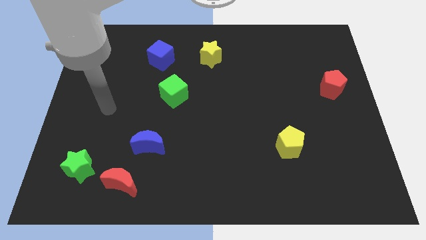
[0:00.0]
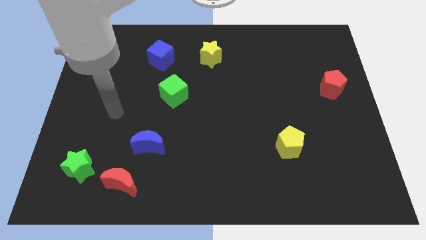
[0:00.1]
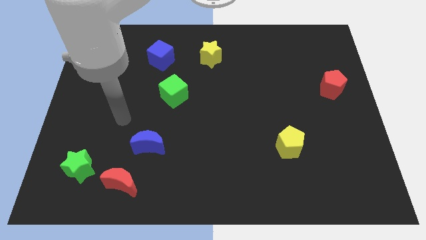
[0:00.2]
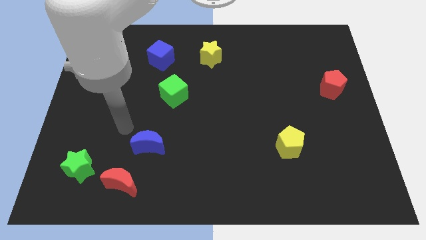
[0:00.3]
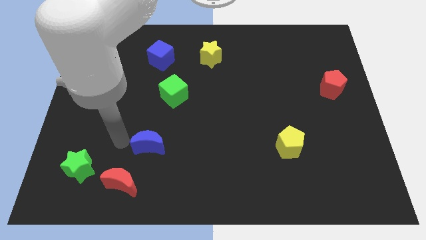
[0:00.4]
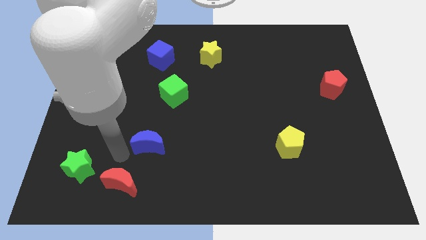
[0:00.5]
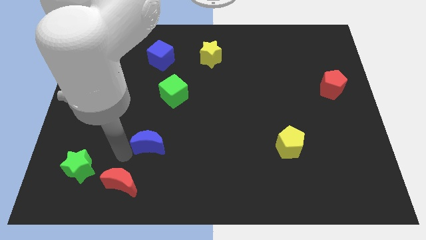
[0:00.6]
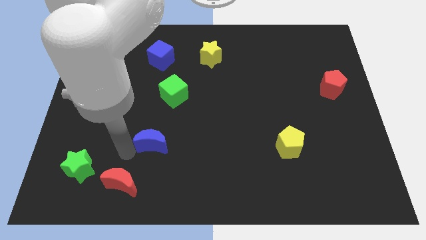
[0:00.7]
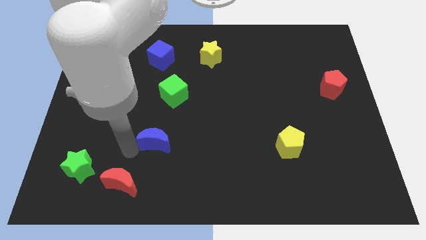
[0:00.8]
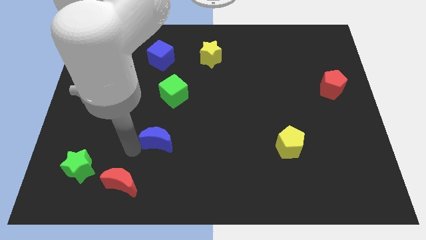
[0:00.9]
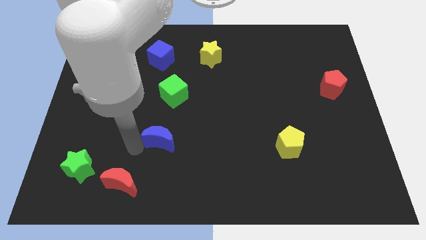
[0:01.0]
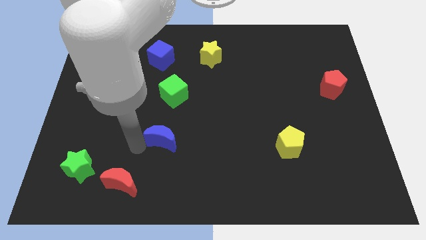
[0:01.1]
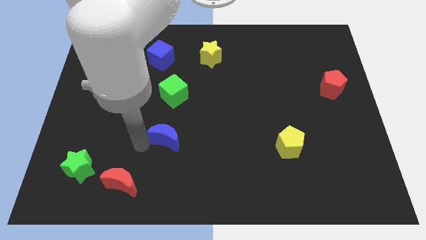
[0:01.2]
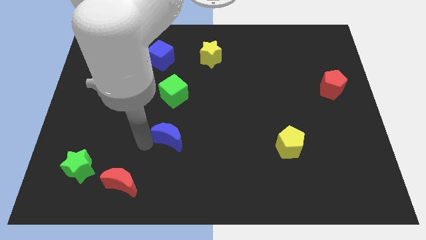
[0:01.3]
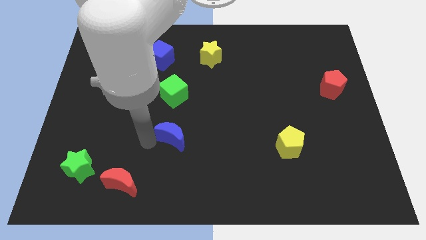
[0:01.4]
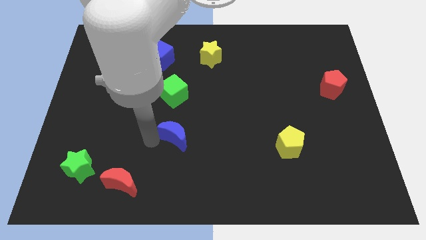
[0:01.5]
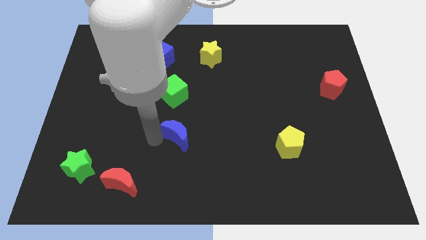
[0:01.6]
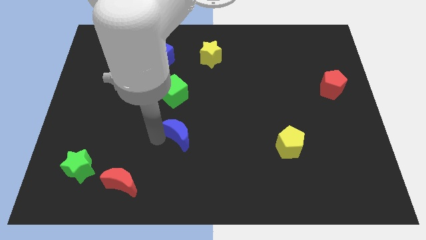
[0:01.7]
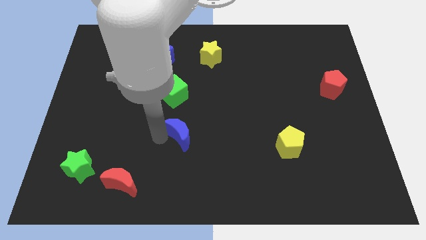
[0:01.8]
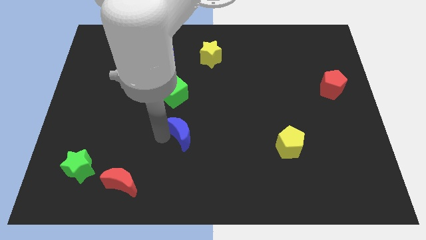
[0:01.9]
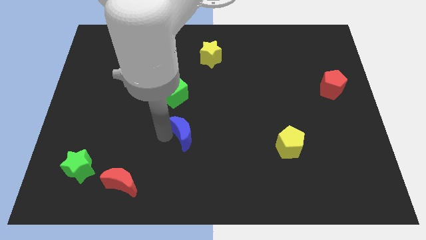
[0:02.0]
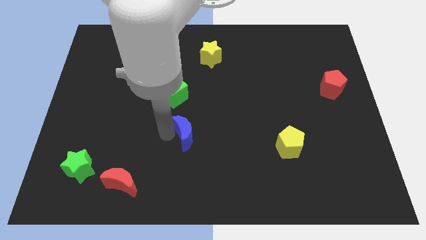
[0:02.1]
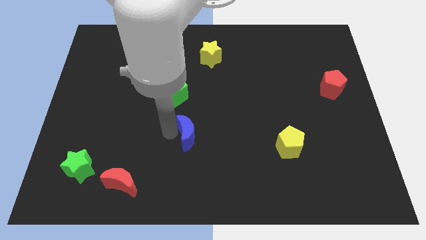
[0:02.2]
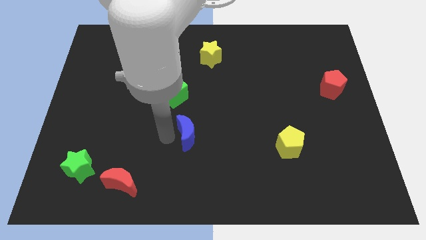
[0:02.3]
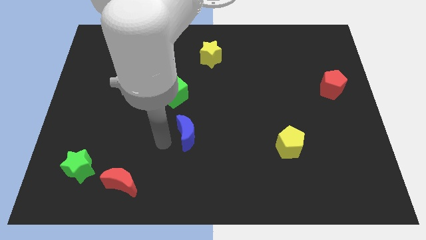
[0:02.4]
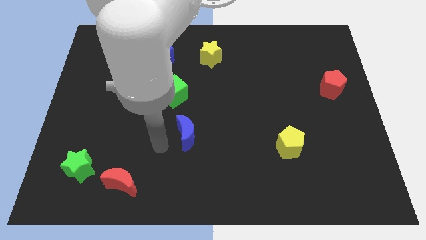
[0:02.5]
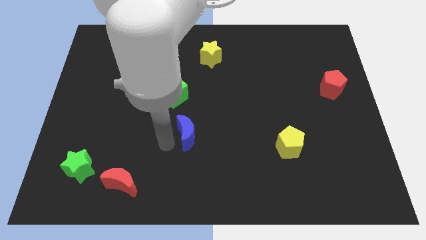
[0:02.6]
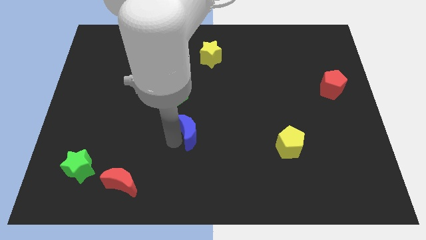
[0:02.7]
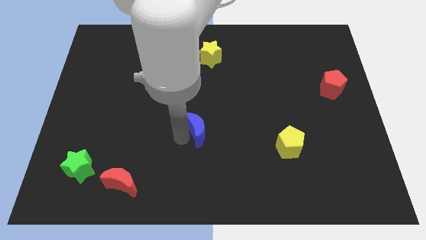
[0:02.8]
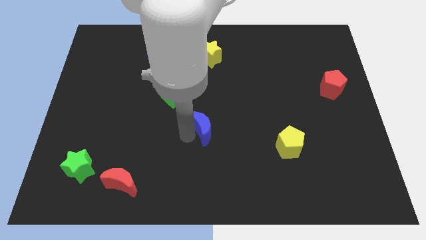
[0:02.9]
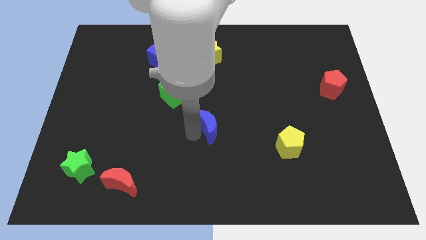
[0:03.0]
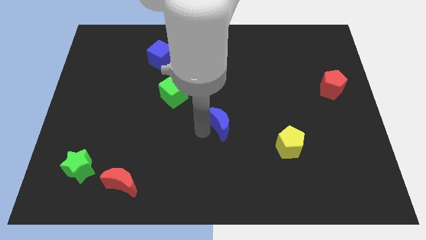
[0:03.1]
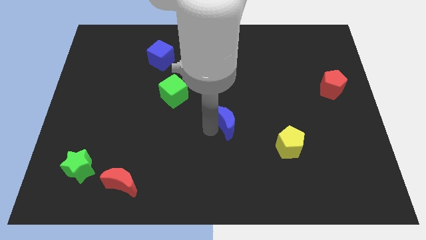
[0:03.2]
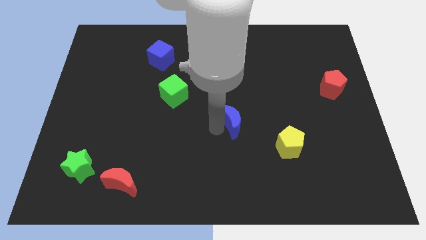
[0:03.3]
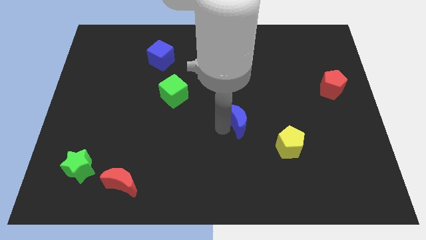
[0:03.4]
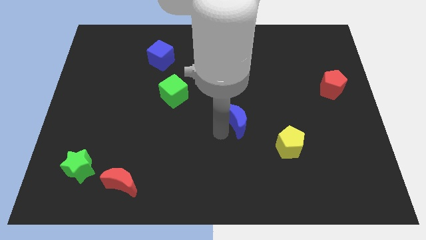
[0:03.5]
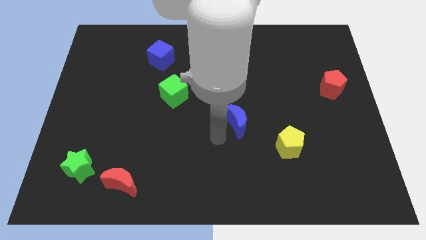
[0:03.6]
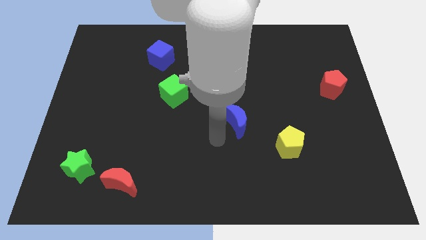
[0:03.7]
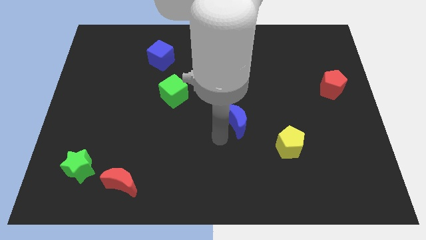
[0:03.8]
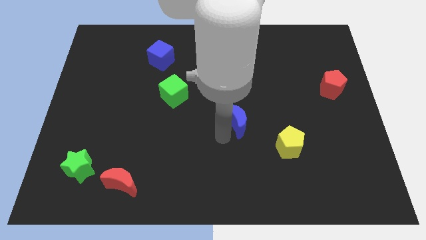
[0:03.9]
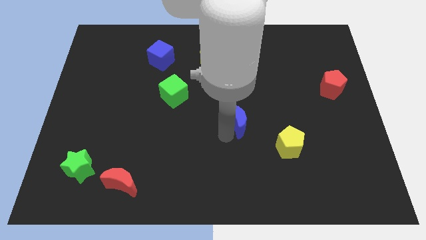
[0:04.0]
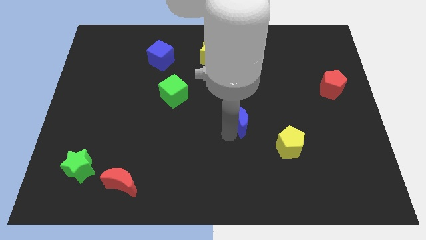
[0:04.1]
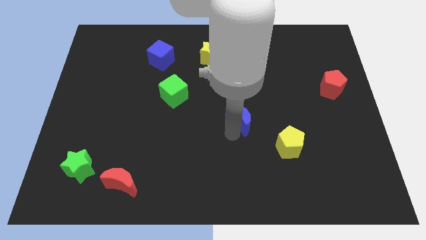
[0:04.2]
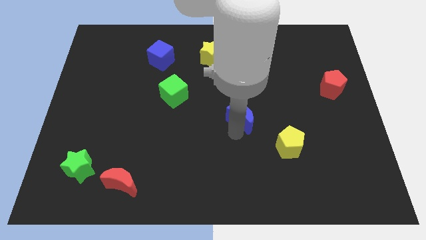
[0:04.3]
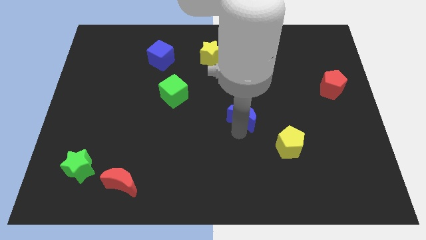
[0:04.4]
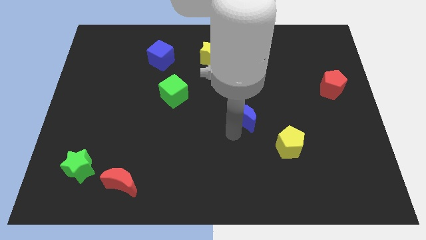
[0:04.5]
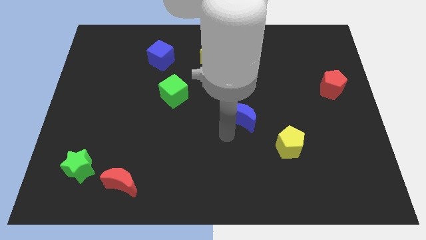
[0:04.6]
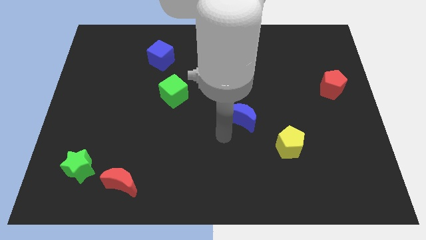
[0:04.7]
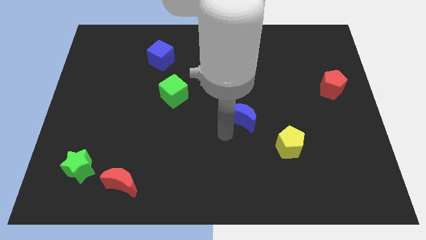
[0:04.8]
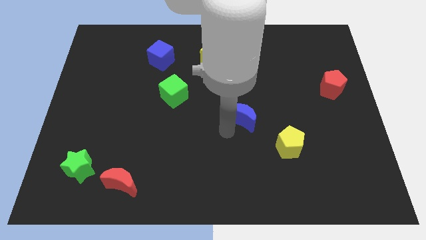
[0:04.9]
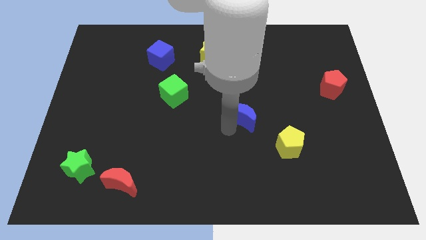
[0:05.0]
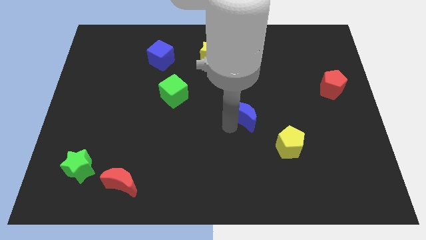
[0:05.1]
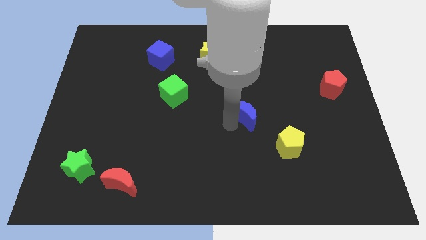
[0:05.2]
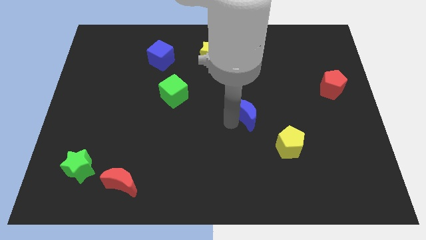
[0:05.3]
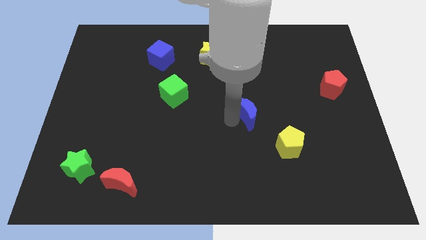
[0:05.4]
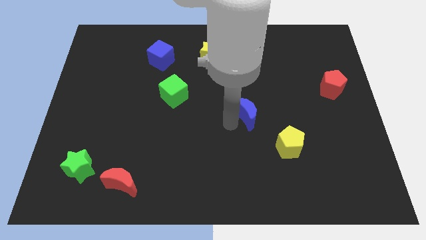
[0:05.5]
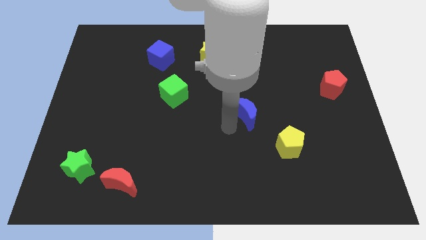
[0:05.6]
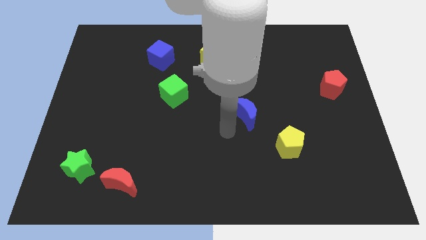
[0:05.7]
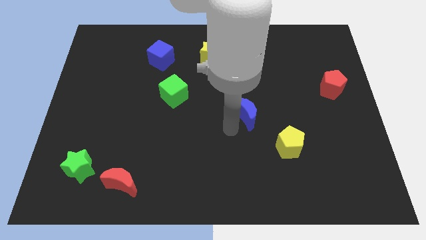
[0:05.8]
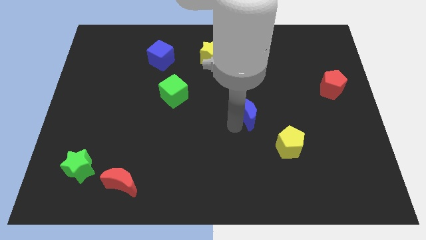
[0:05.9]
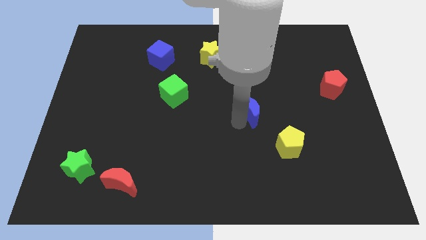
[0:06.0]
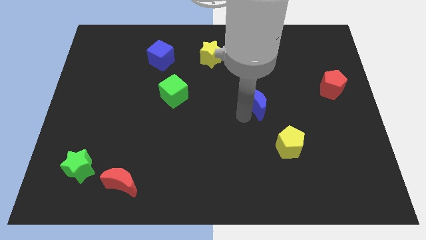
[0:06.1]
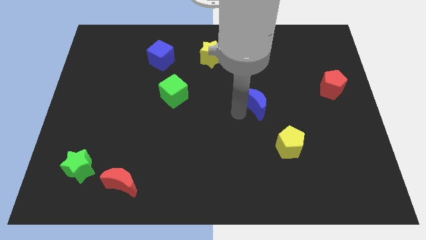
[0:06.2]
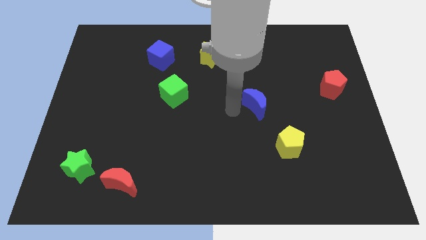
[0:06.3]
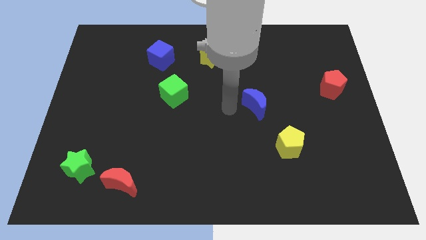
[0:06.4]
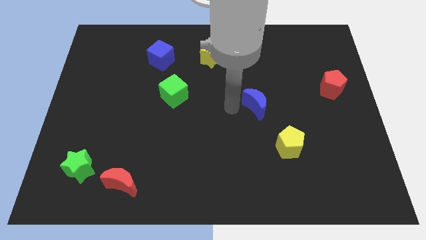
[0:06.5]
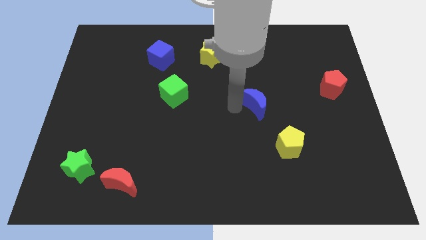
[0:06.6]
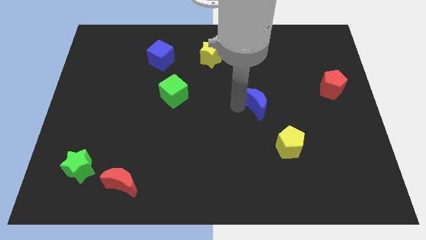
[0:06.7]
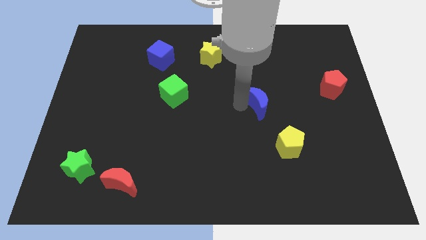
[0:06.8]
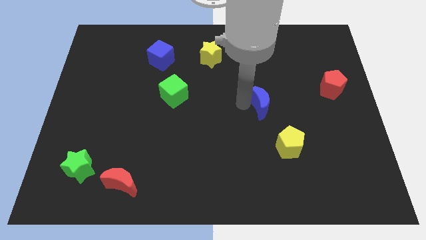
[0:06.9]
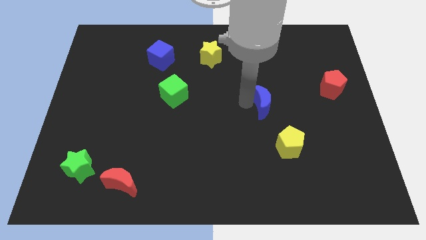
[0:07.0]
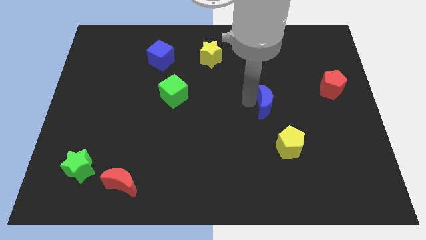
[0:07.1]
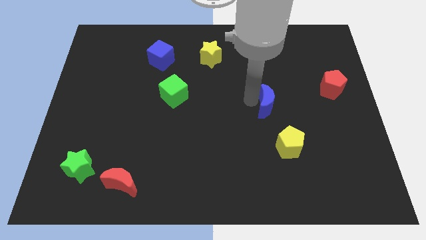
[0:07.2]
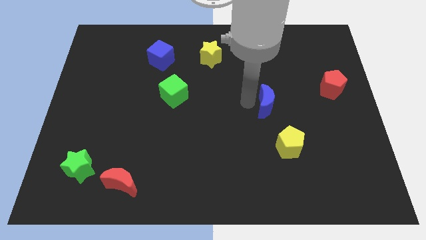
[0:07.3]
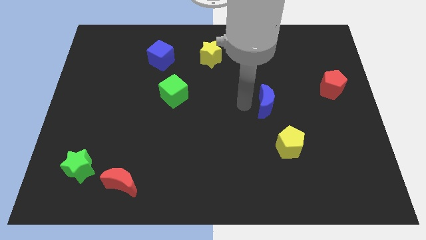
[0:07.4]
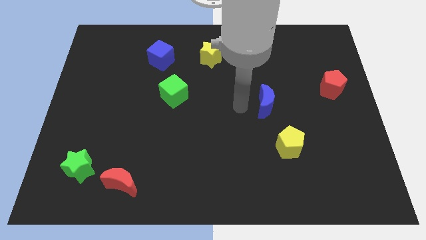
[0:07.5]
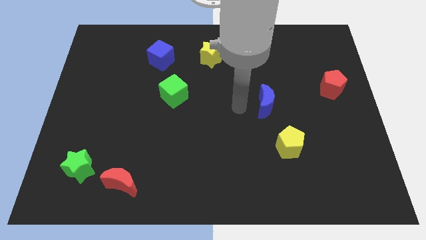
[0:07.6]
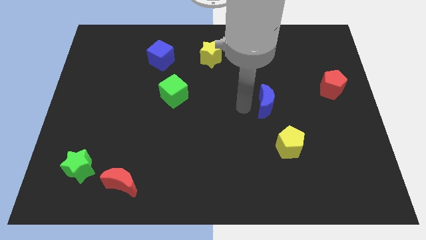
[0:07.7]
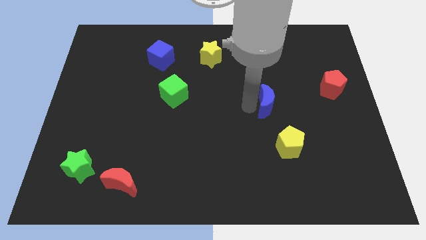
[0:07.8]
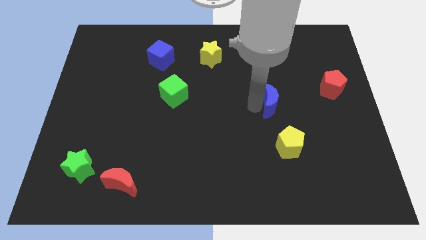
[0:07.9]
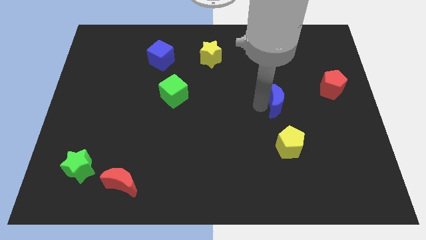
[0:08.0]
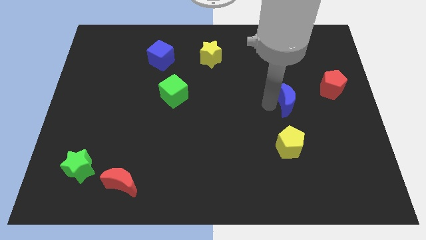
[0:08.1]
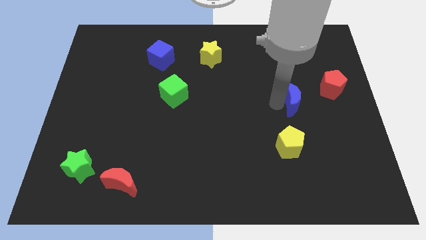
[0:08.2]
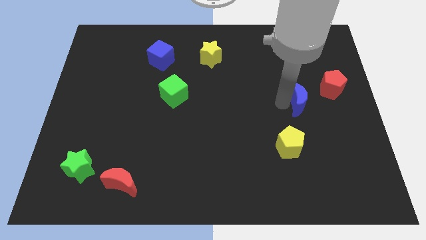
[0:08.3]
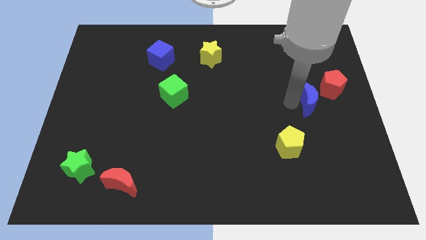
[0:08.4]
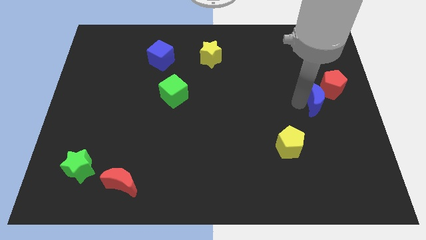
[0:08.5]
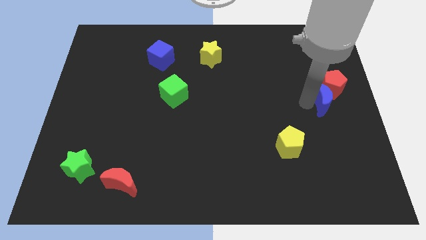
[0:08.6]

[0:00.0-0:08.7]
push the blue moon to the right side
